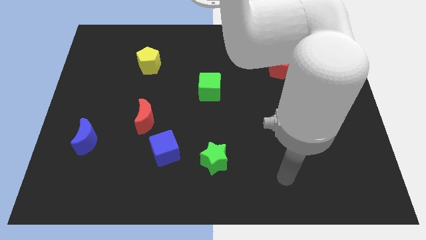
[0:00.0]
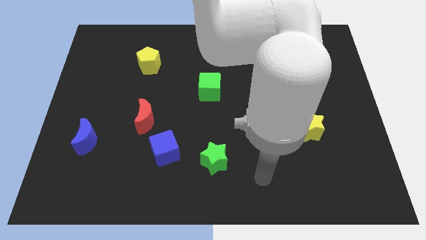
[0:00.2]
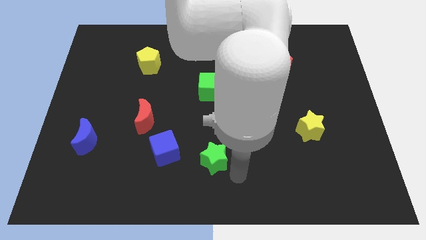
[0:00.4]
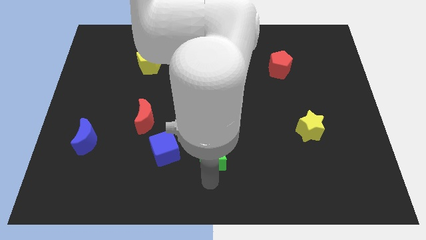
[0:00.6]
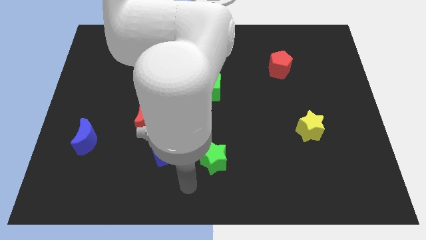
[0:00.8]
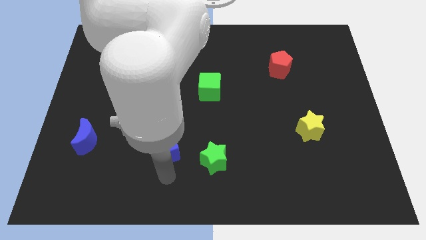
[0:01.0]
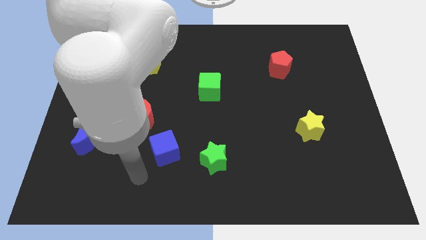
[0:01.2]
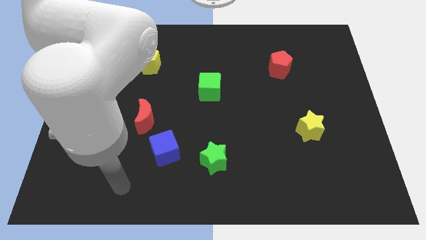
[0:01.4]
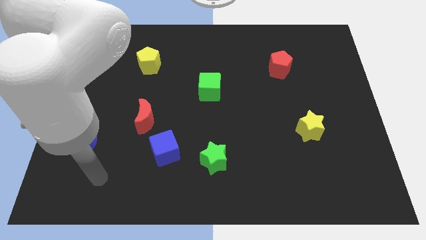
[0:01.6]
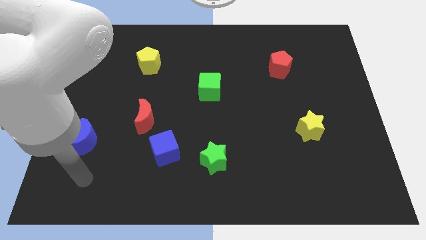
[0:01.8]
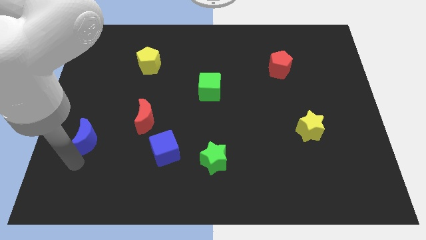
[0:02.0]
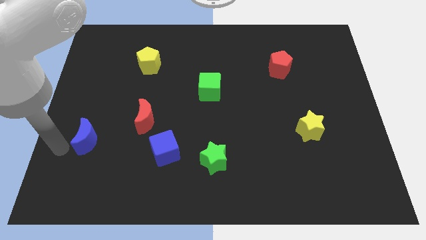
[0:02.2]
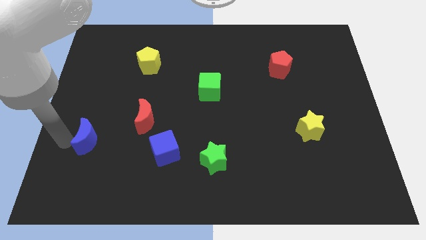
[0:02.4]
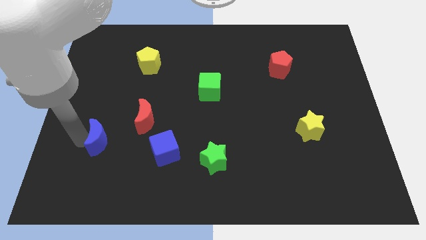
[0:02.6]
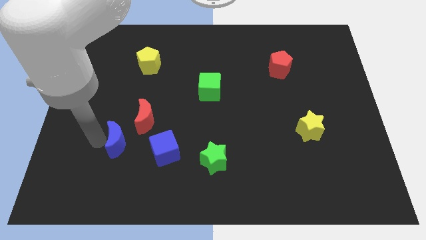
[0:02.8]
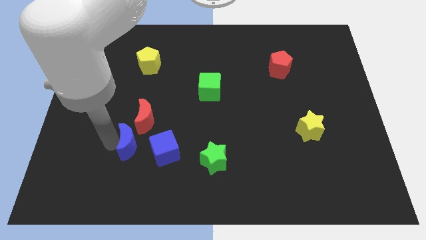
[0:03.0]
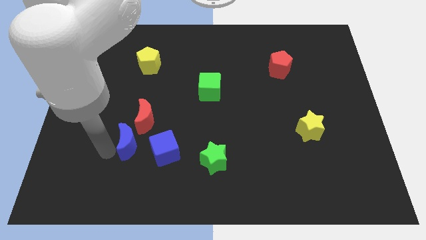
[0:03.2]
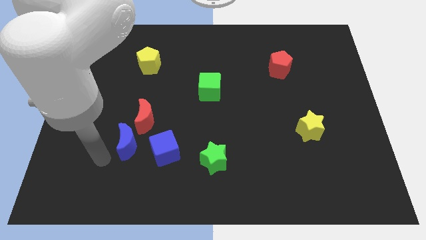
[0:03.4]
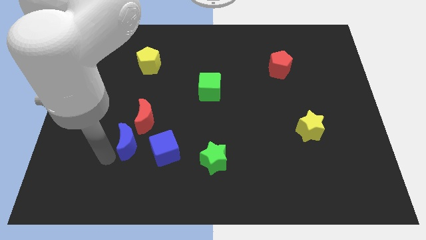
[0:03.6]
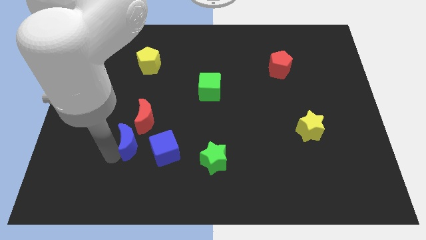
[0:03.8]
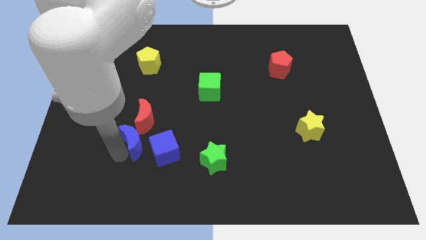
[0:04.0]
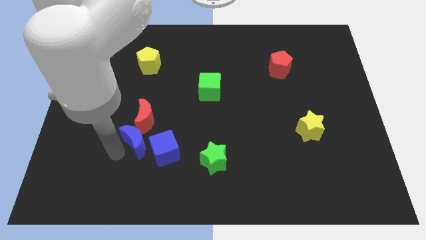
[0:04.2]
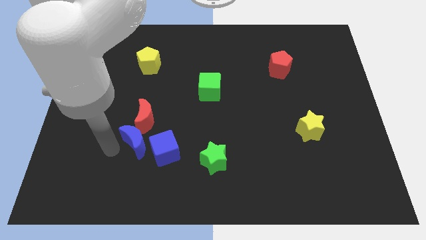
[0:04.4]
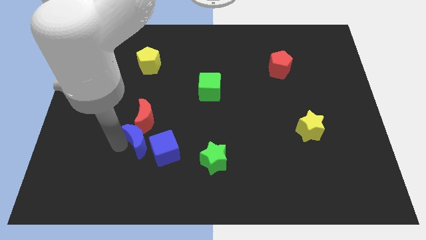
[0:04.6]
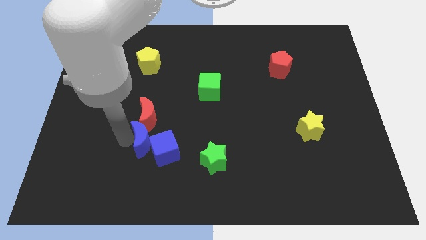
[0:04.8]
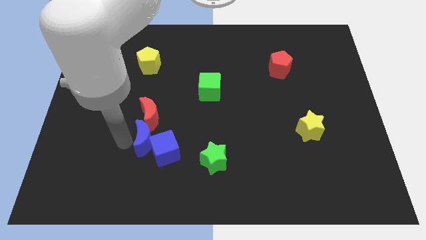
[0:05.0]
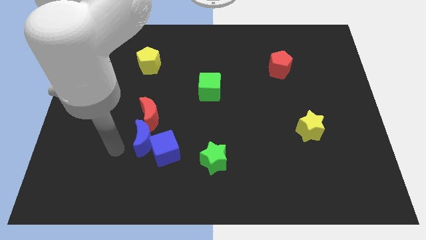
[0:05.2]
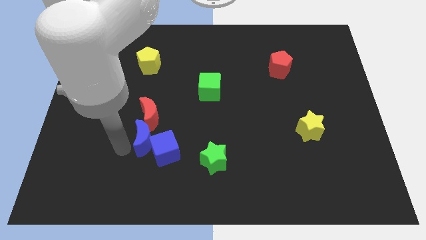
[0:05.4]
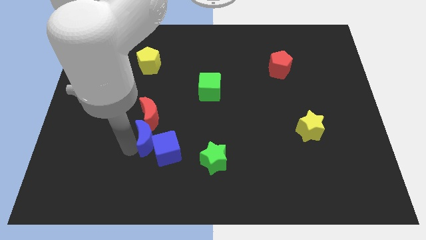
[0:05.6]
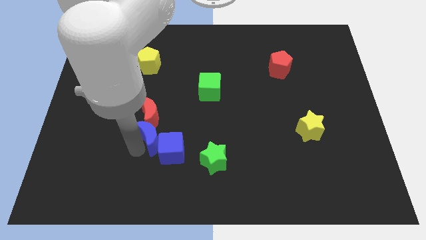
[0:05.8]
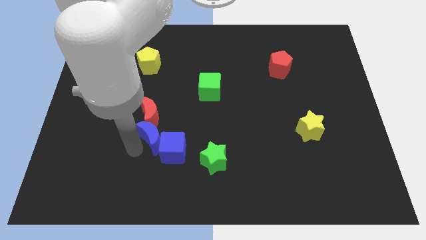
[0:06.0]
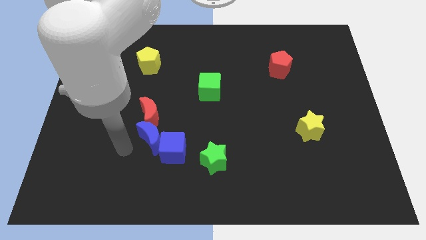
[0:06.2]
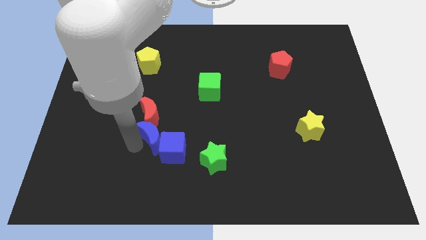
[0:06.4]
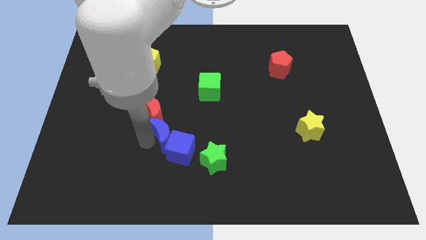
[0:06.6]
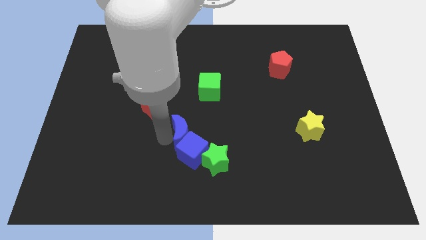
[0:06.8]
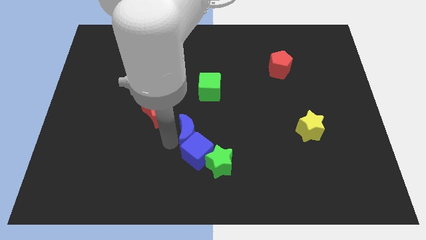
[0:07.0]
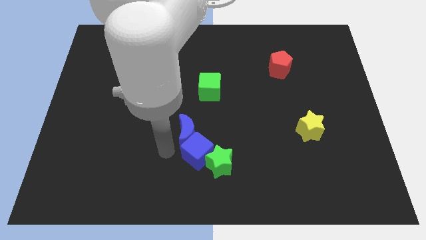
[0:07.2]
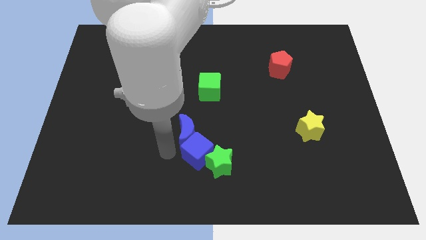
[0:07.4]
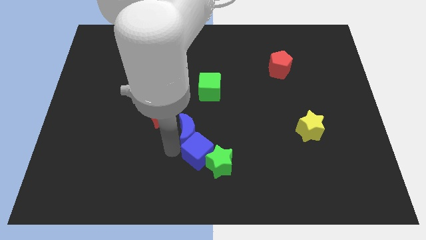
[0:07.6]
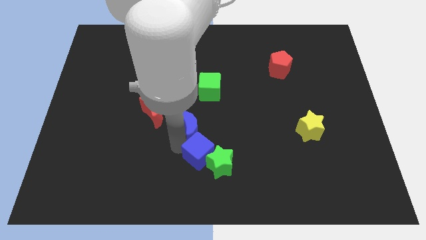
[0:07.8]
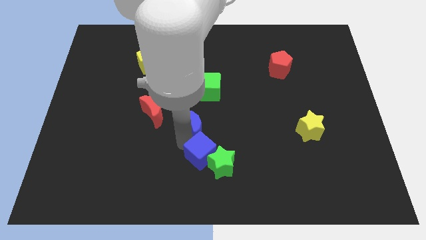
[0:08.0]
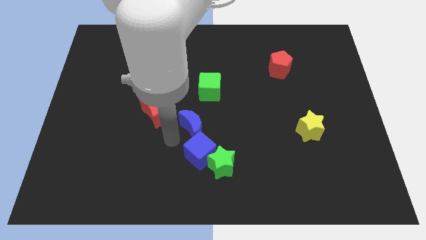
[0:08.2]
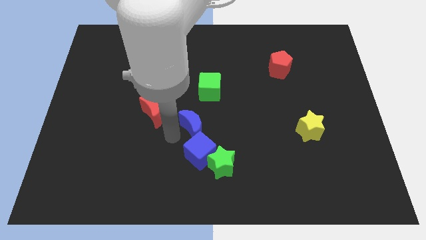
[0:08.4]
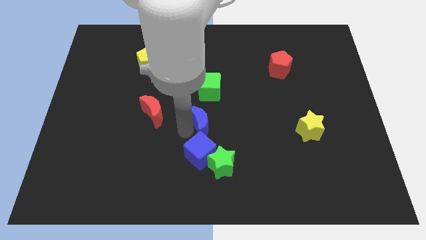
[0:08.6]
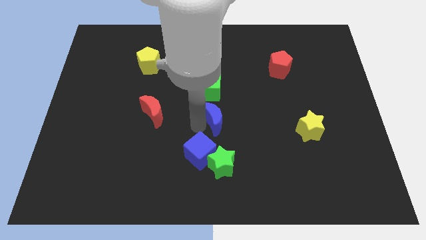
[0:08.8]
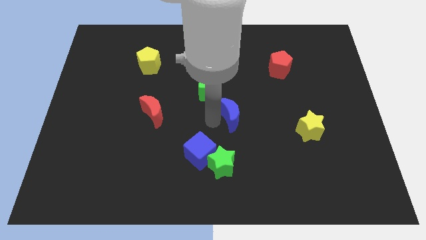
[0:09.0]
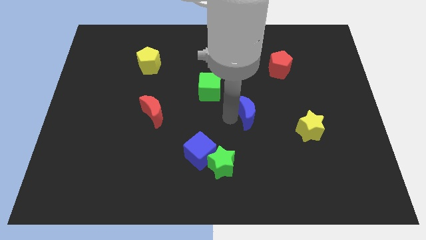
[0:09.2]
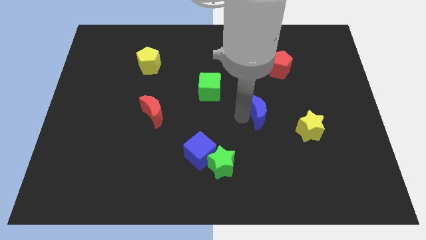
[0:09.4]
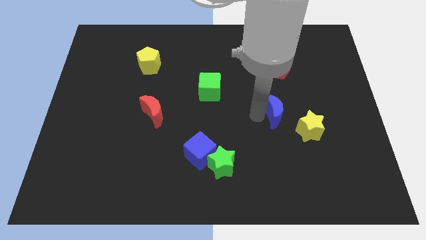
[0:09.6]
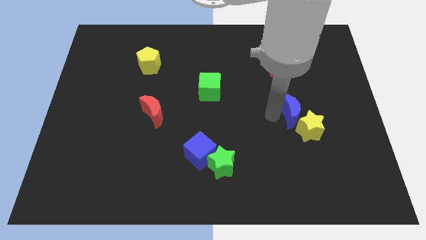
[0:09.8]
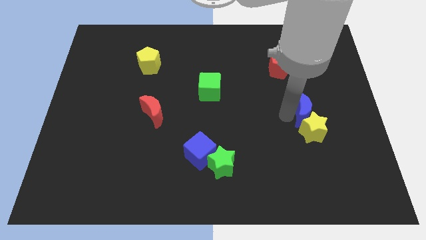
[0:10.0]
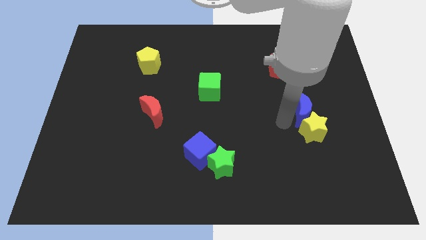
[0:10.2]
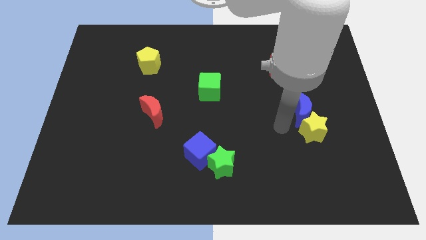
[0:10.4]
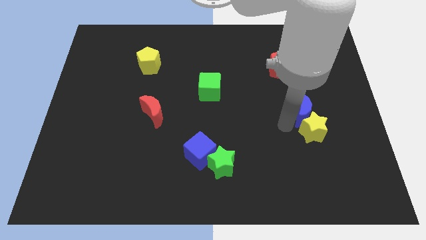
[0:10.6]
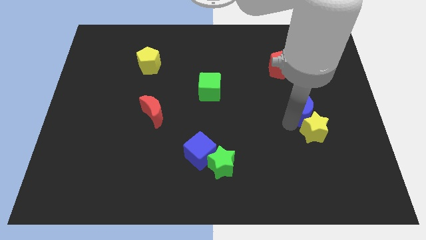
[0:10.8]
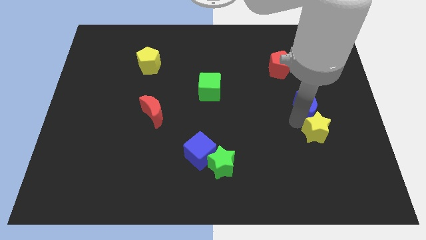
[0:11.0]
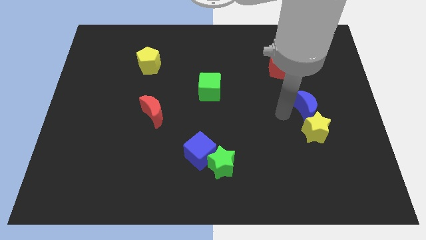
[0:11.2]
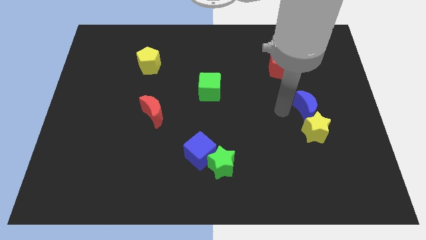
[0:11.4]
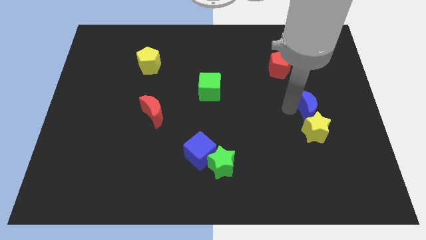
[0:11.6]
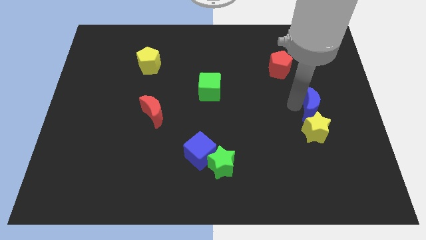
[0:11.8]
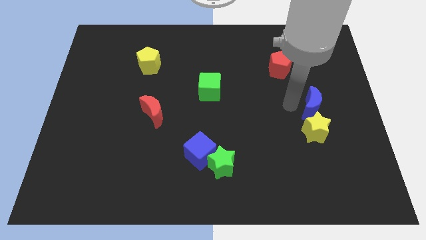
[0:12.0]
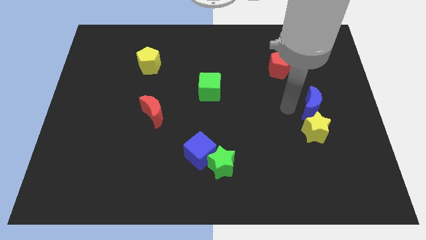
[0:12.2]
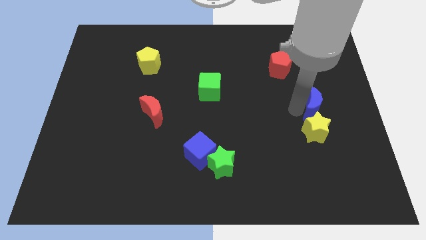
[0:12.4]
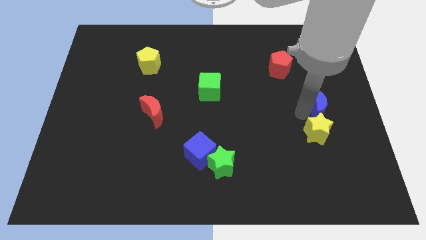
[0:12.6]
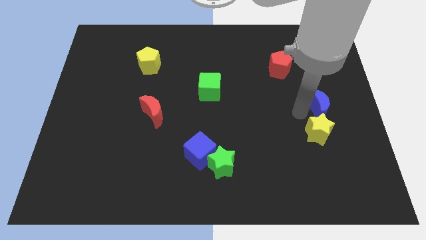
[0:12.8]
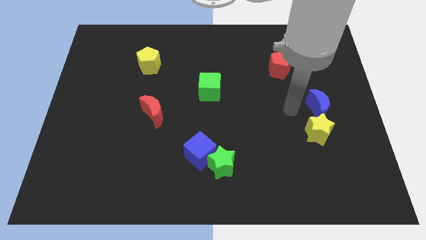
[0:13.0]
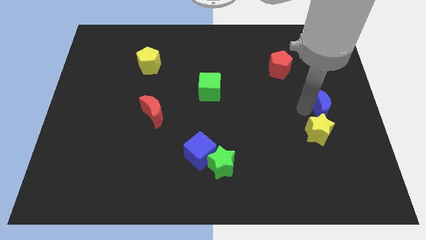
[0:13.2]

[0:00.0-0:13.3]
move the blue moon to the center right
